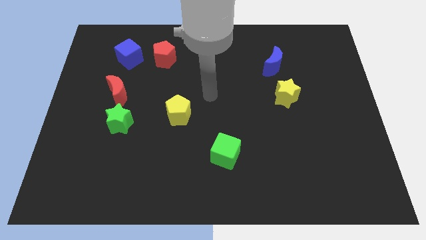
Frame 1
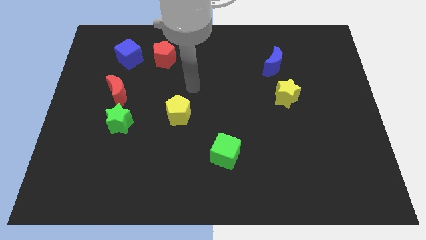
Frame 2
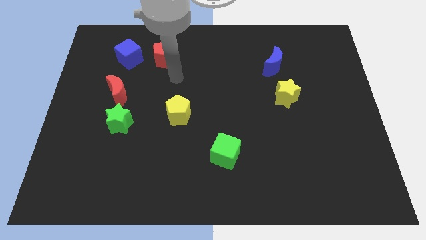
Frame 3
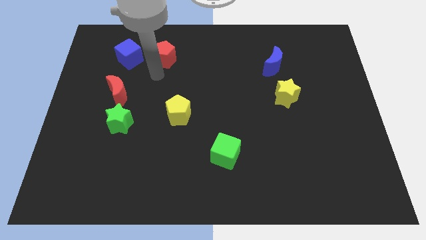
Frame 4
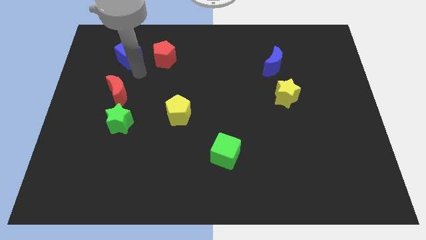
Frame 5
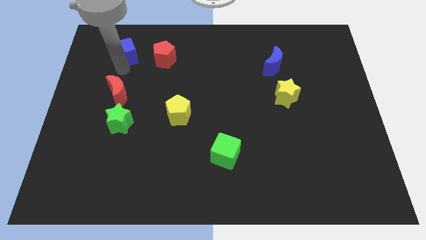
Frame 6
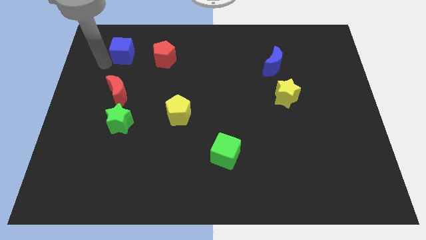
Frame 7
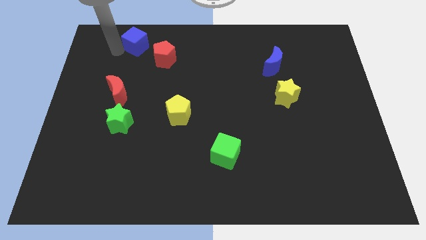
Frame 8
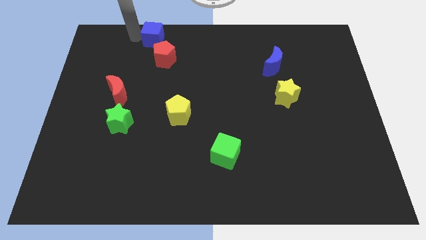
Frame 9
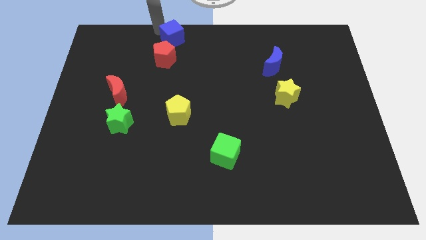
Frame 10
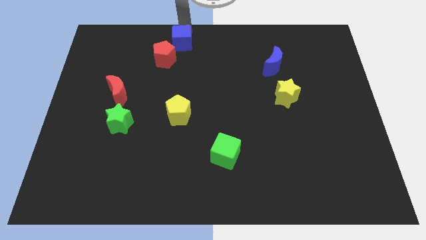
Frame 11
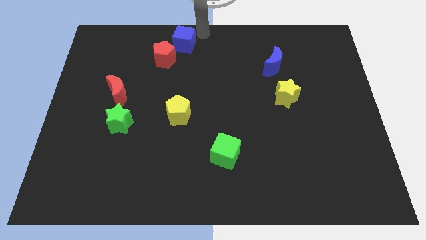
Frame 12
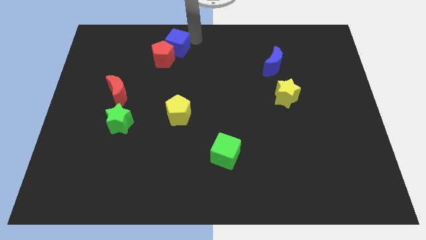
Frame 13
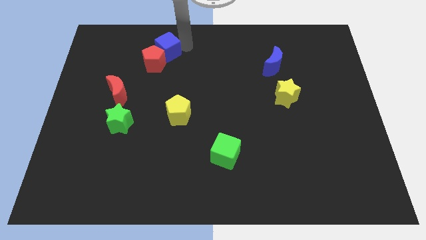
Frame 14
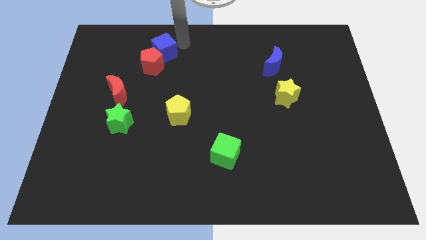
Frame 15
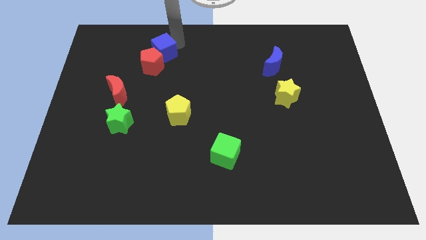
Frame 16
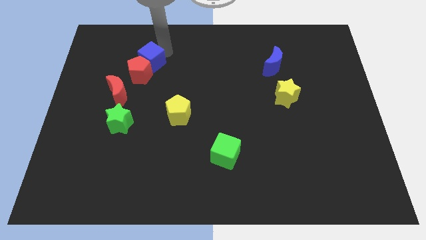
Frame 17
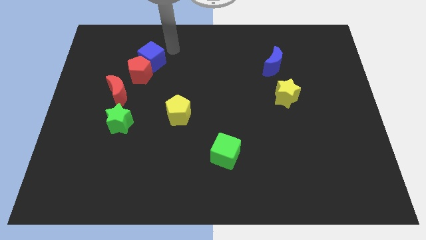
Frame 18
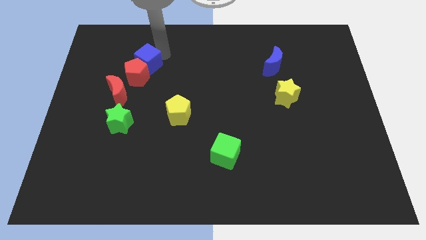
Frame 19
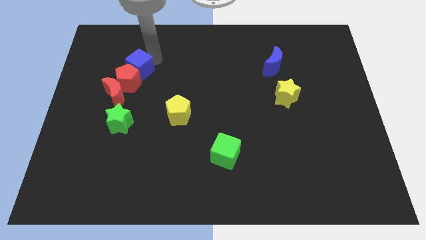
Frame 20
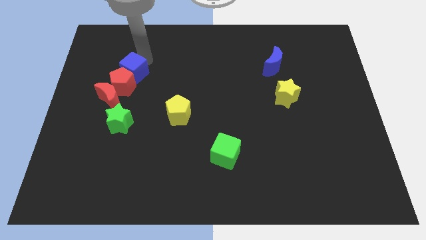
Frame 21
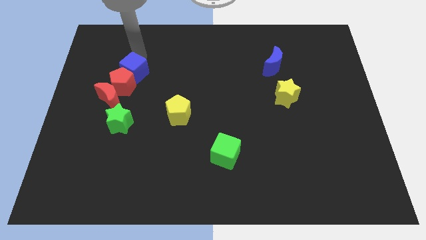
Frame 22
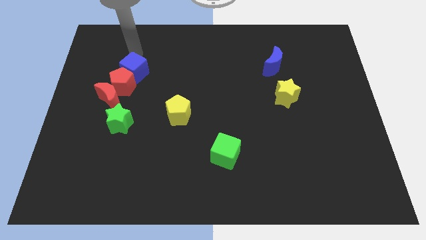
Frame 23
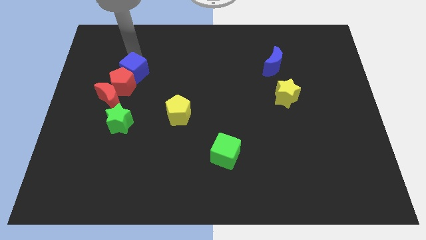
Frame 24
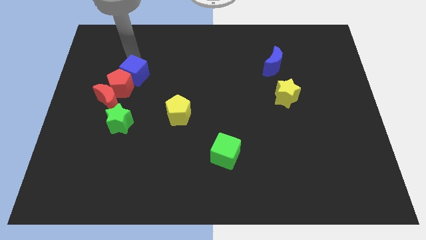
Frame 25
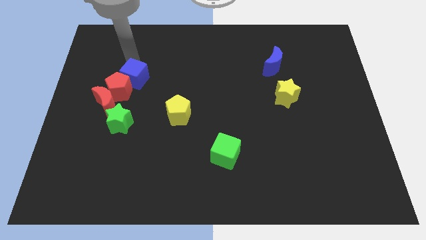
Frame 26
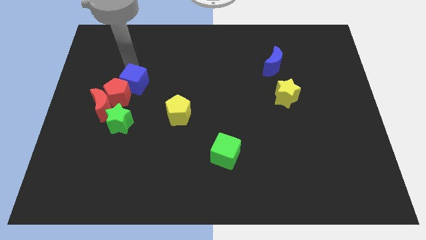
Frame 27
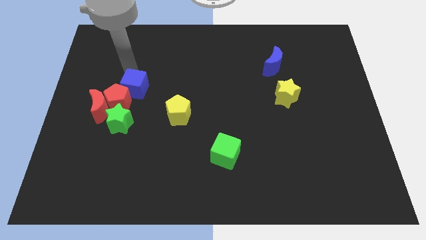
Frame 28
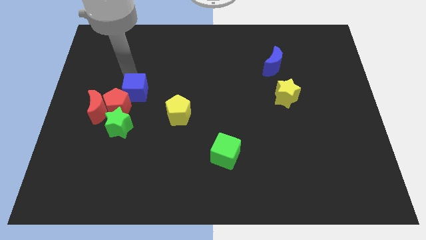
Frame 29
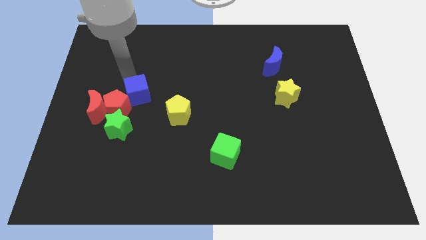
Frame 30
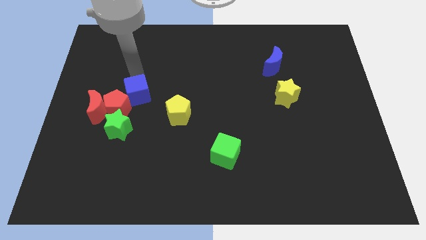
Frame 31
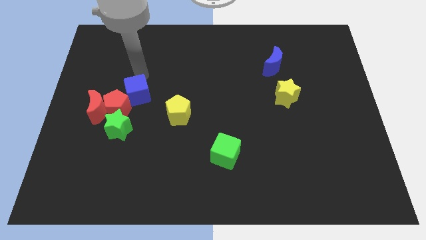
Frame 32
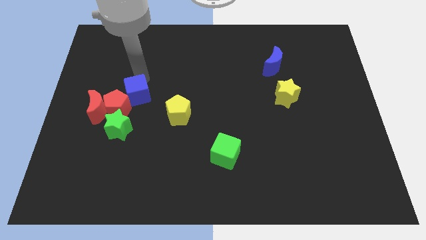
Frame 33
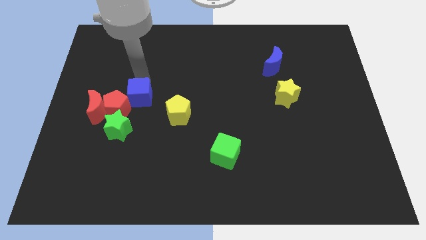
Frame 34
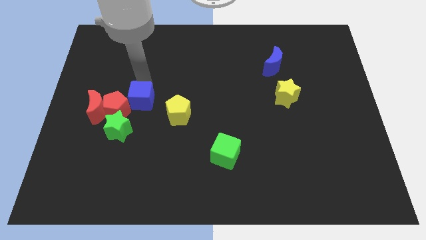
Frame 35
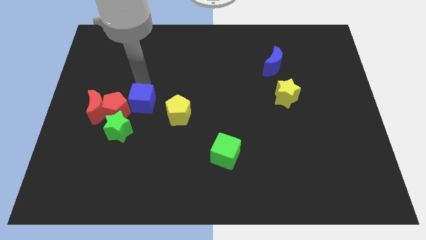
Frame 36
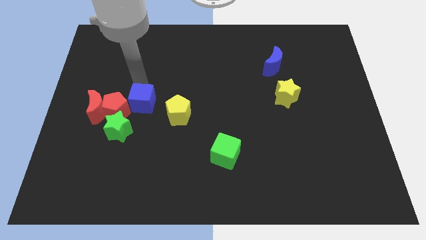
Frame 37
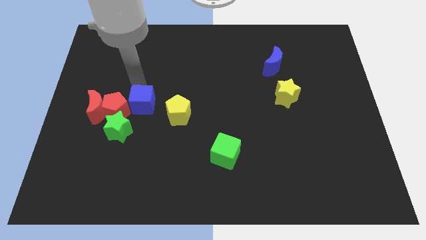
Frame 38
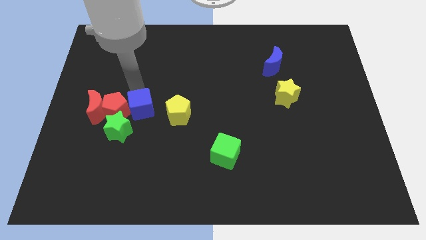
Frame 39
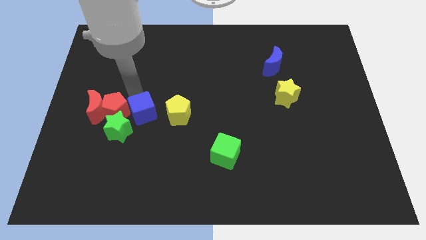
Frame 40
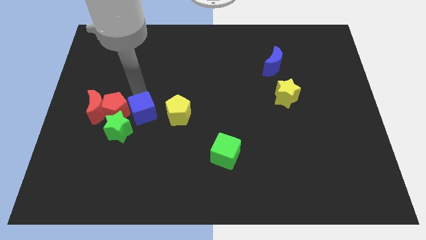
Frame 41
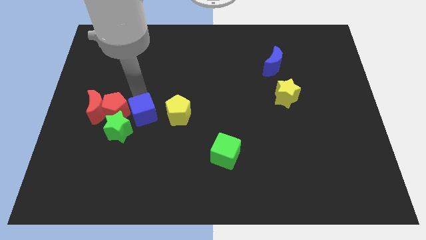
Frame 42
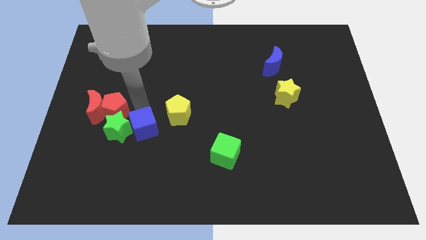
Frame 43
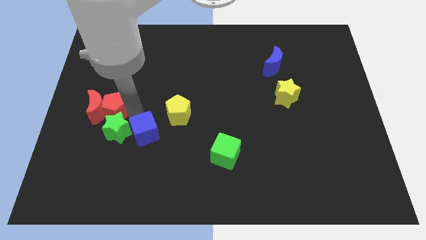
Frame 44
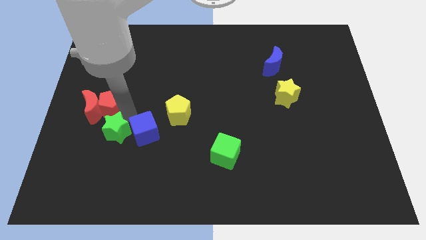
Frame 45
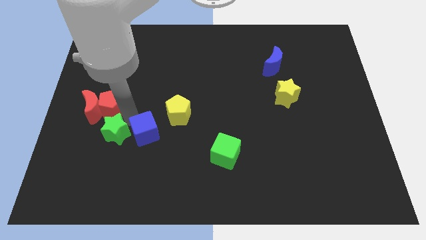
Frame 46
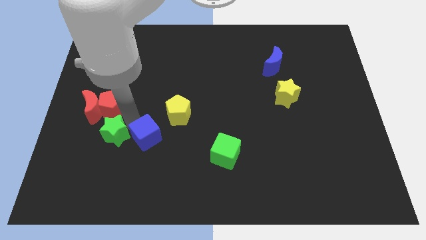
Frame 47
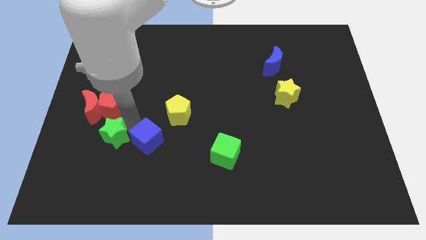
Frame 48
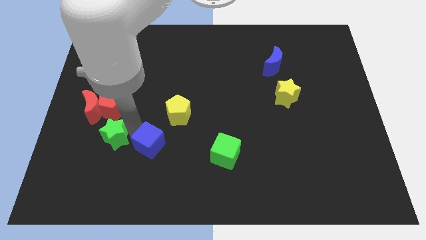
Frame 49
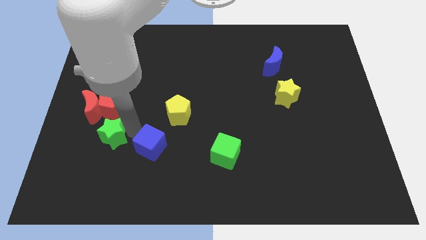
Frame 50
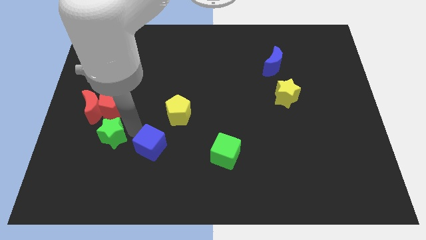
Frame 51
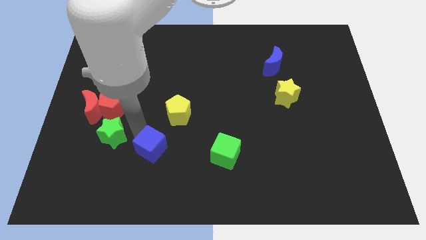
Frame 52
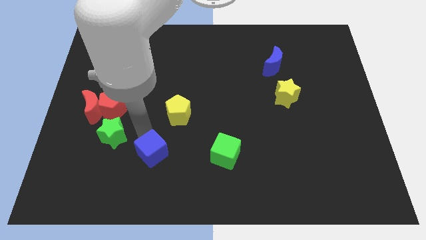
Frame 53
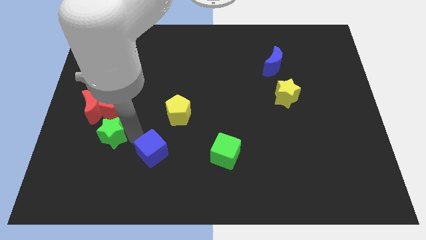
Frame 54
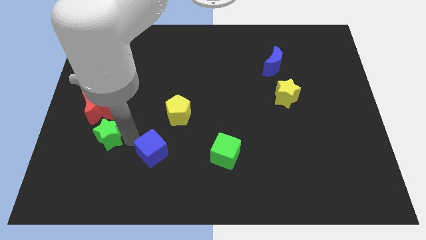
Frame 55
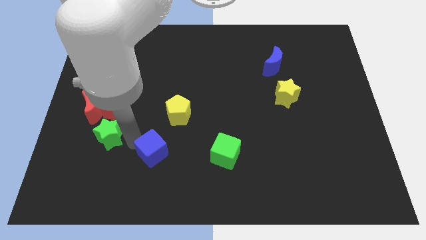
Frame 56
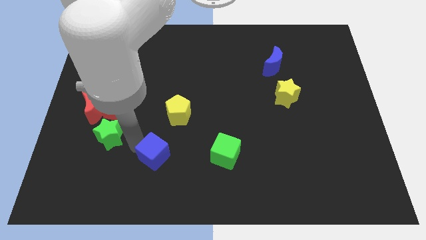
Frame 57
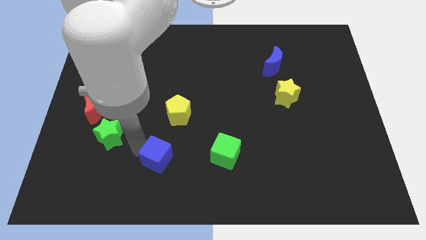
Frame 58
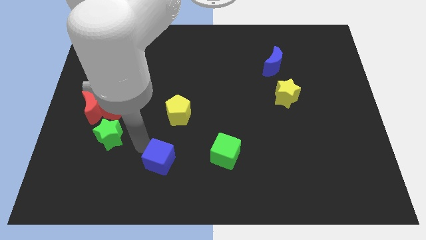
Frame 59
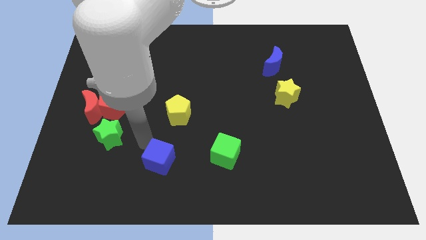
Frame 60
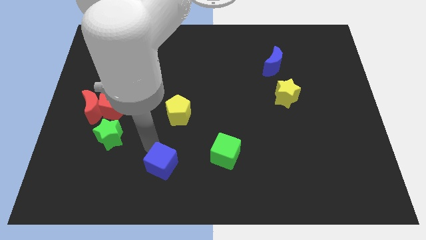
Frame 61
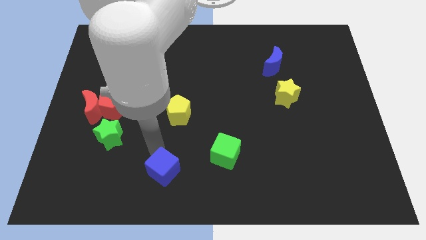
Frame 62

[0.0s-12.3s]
move the blue cube to the bottom side

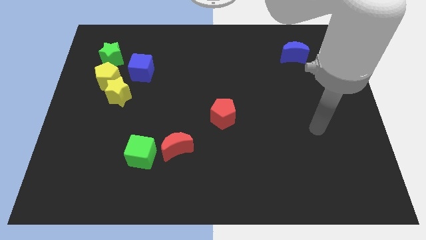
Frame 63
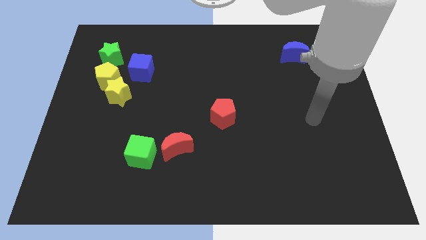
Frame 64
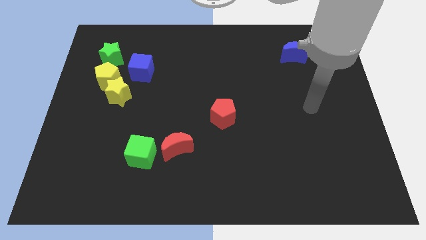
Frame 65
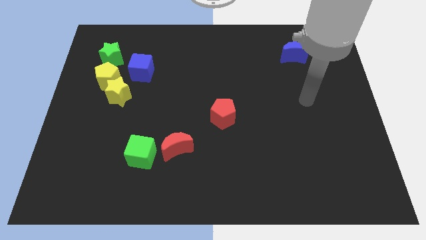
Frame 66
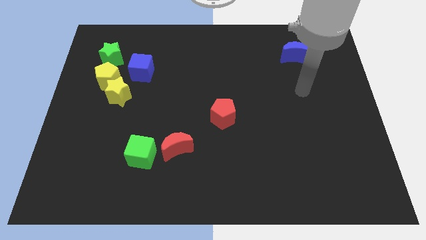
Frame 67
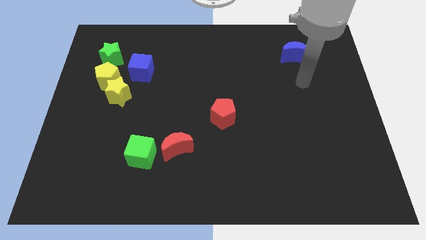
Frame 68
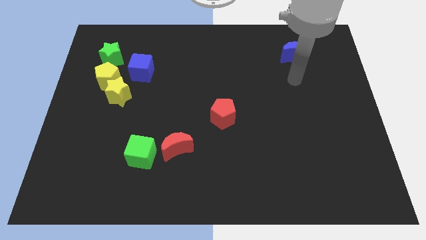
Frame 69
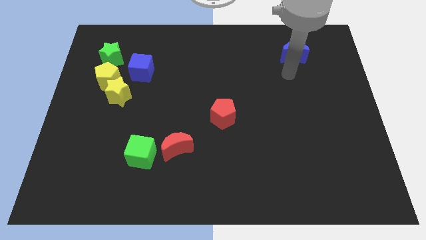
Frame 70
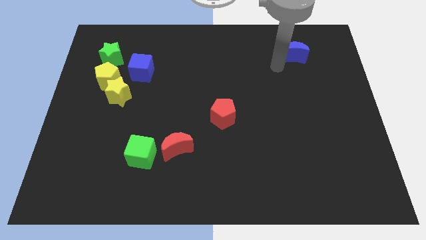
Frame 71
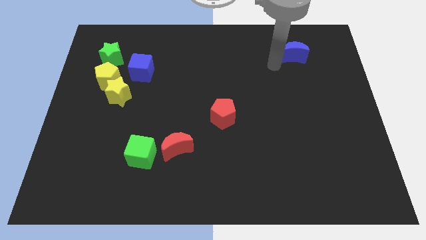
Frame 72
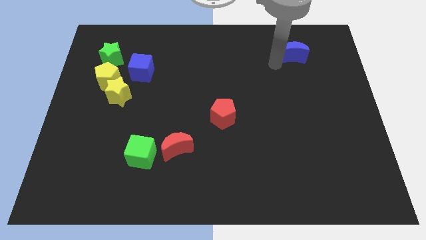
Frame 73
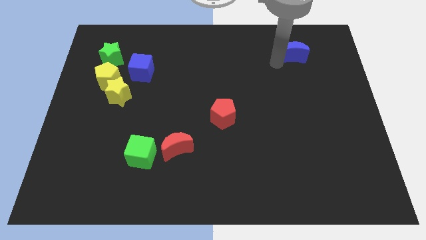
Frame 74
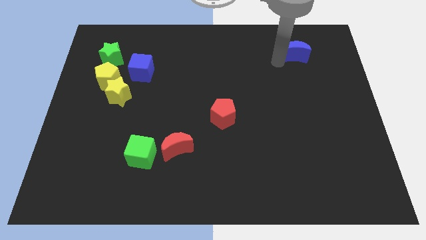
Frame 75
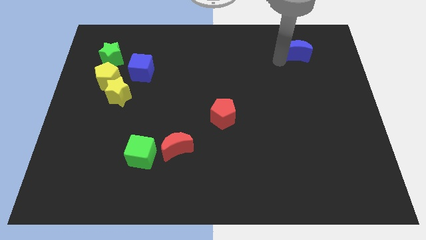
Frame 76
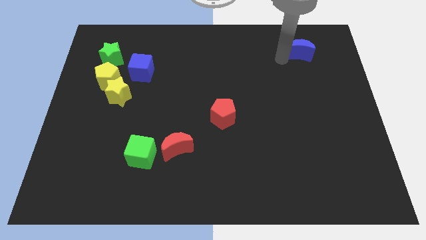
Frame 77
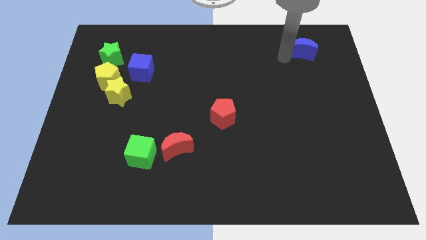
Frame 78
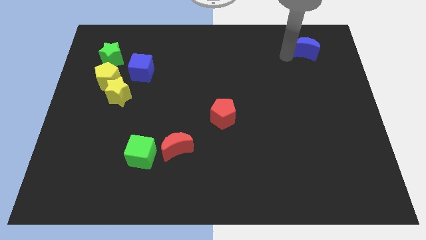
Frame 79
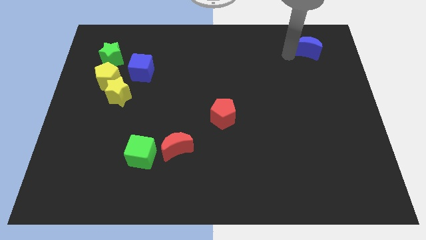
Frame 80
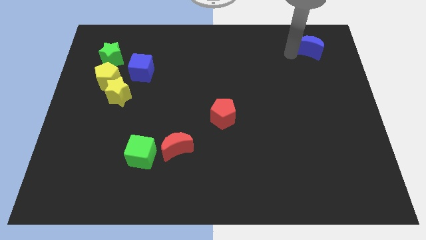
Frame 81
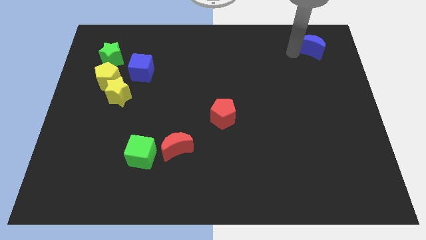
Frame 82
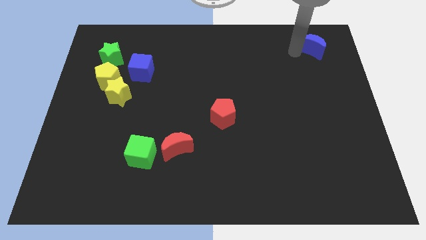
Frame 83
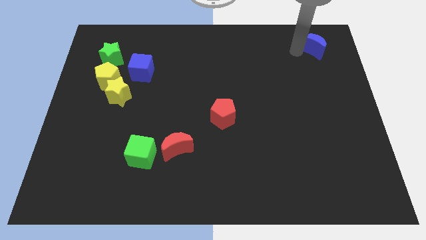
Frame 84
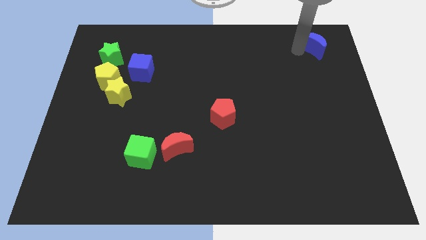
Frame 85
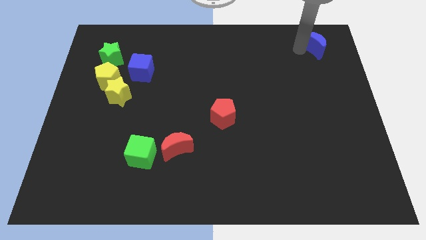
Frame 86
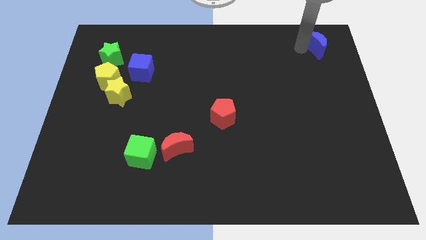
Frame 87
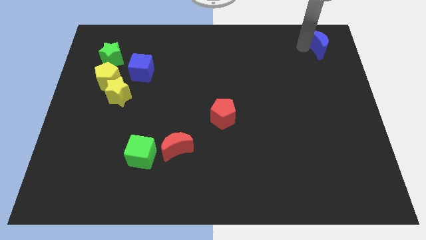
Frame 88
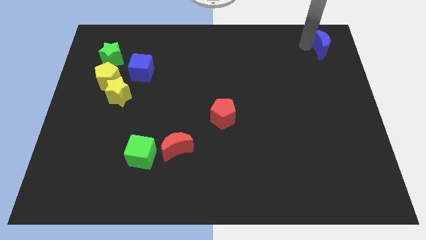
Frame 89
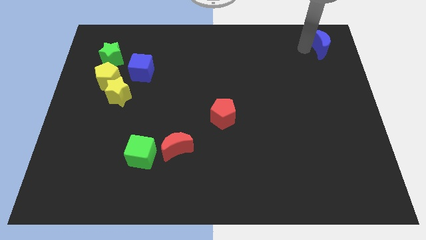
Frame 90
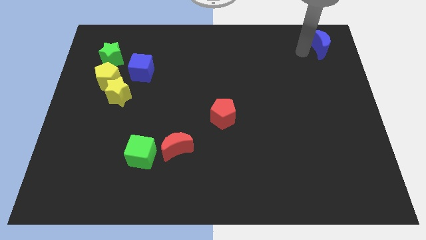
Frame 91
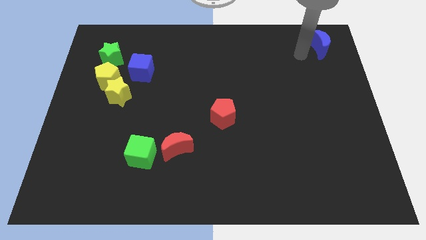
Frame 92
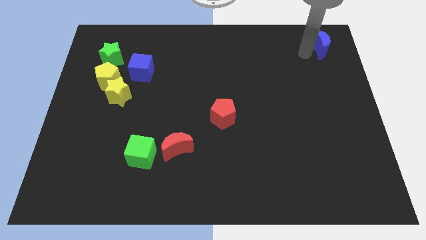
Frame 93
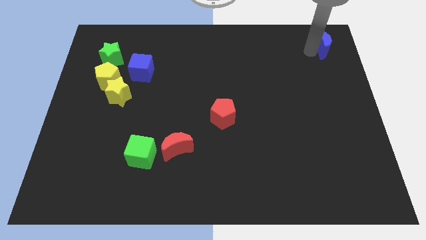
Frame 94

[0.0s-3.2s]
slide the blue moon to the top right corner
